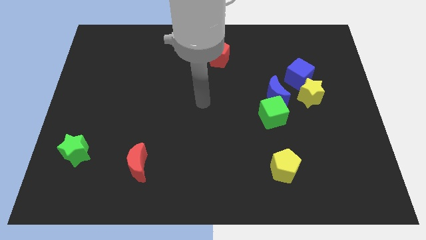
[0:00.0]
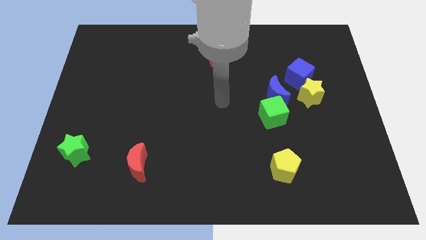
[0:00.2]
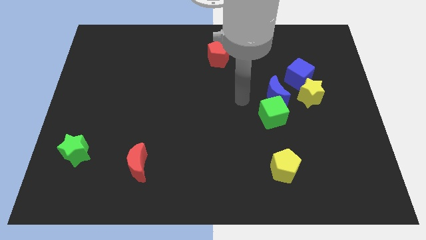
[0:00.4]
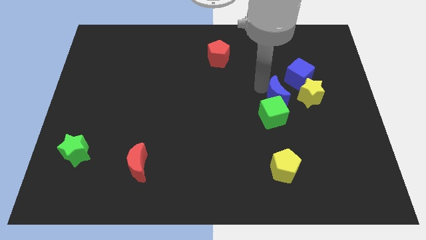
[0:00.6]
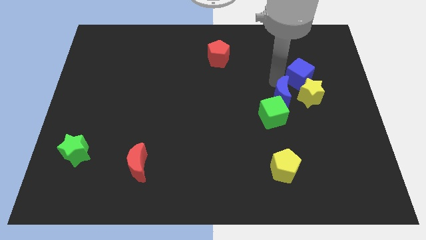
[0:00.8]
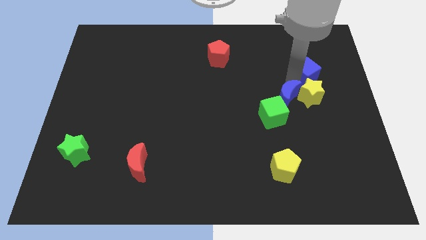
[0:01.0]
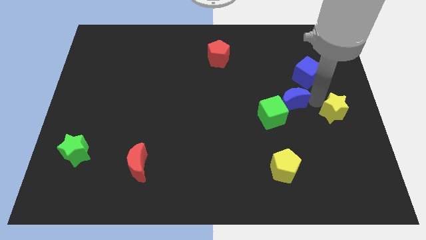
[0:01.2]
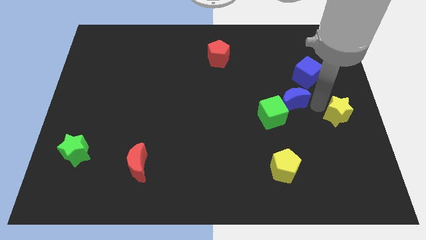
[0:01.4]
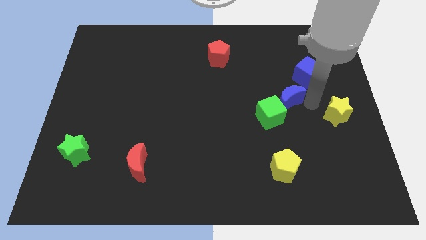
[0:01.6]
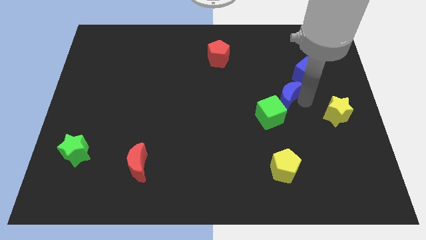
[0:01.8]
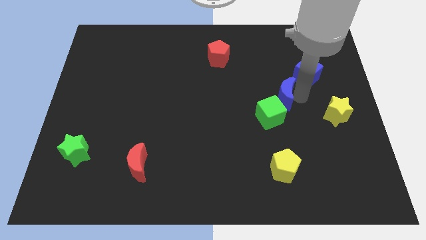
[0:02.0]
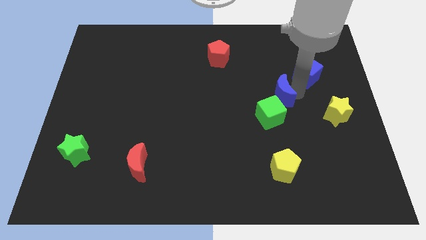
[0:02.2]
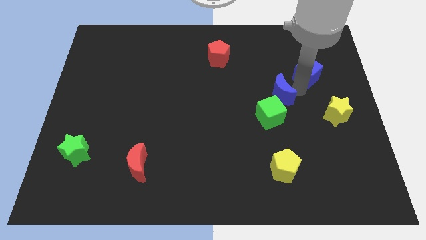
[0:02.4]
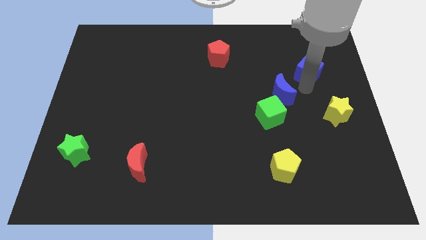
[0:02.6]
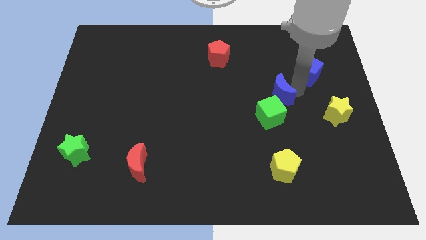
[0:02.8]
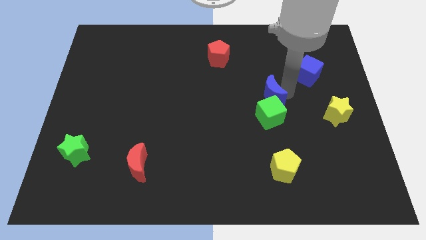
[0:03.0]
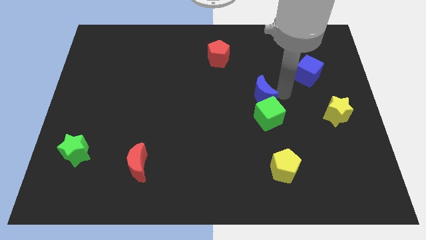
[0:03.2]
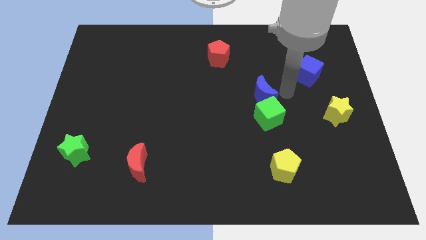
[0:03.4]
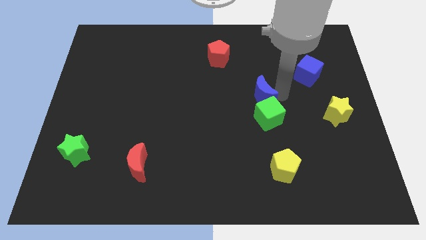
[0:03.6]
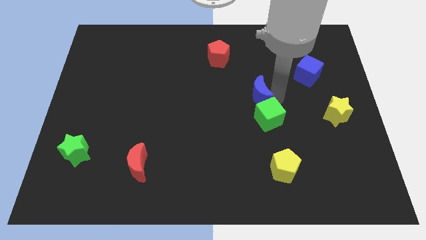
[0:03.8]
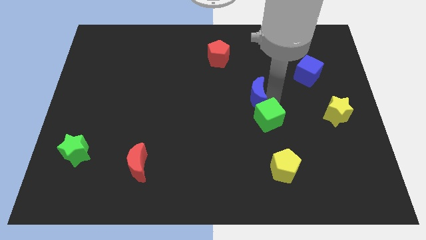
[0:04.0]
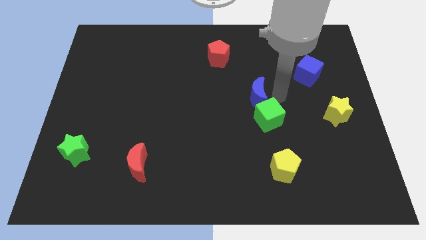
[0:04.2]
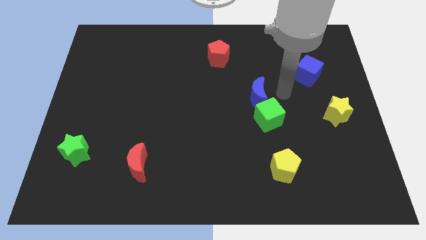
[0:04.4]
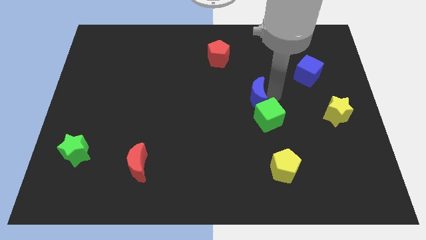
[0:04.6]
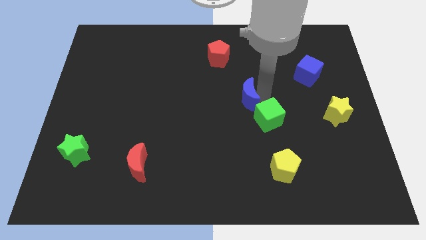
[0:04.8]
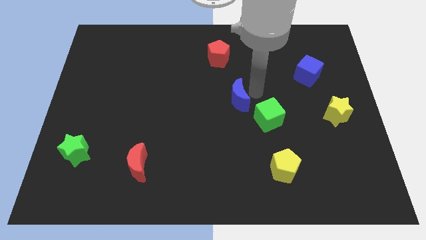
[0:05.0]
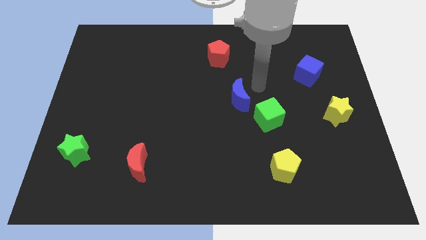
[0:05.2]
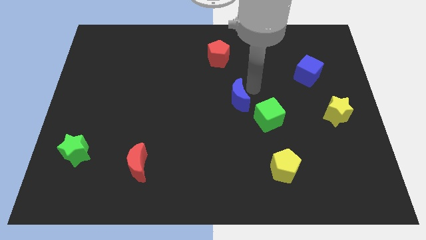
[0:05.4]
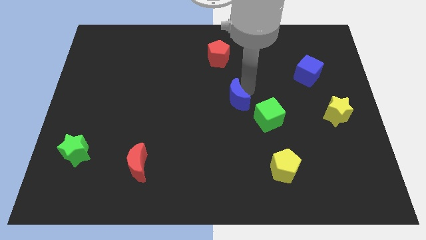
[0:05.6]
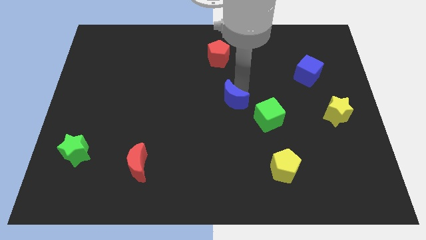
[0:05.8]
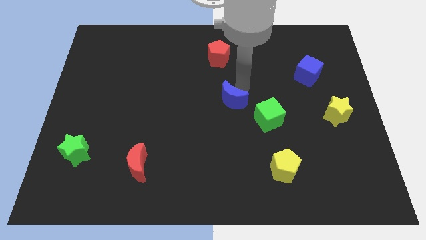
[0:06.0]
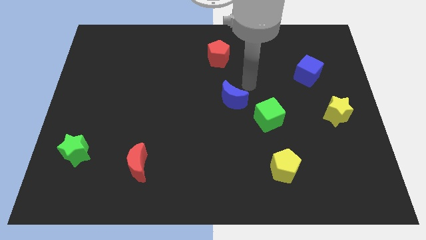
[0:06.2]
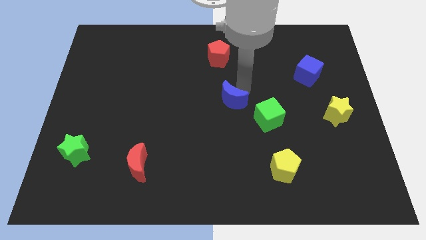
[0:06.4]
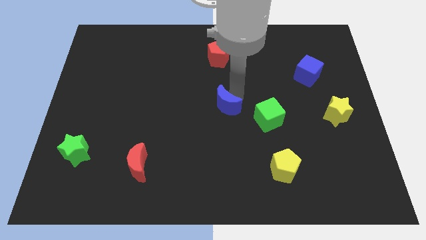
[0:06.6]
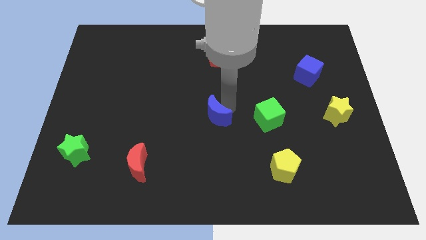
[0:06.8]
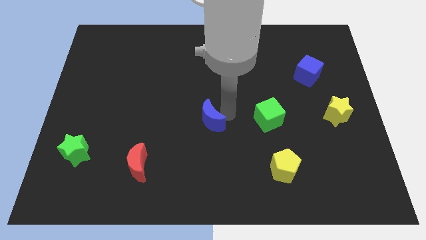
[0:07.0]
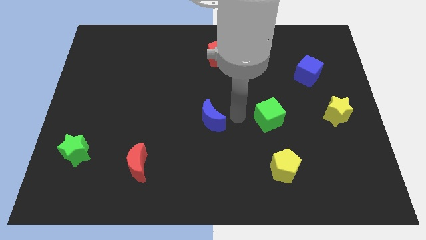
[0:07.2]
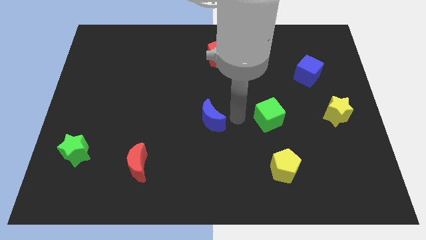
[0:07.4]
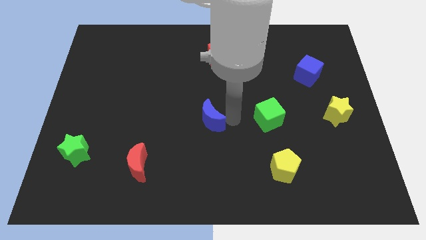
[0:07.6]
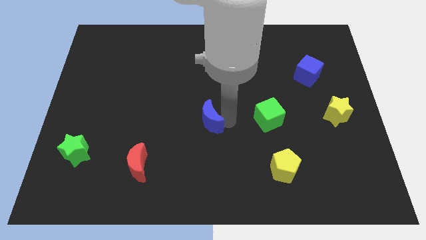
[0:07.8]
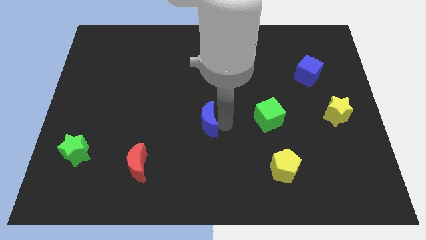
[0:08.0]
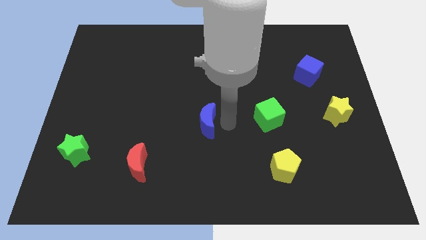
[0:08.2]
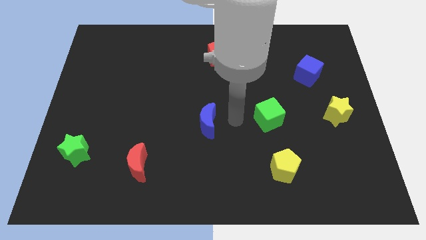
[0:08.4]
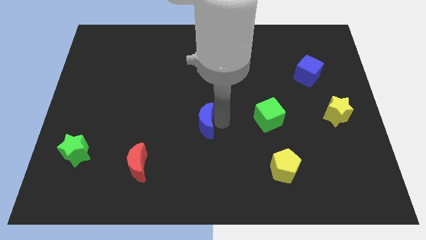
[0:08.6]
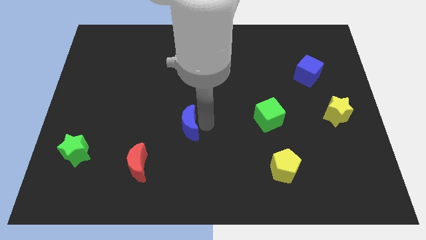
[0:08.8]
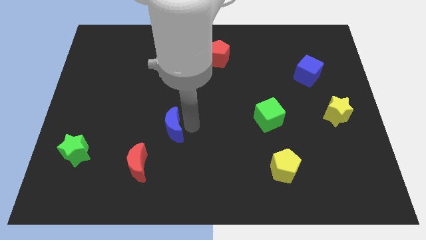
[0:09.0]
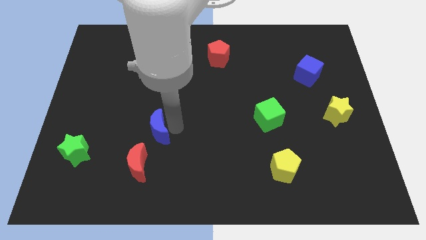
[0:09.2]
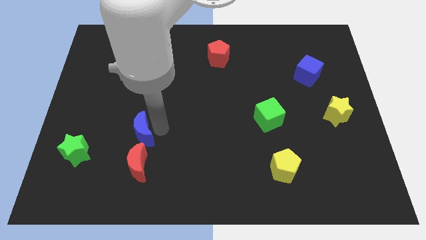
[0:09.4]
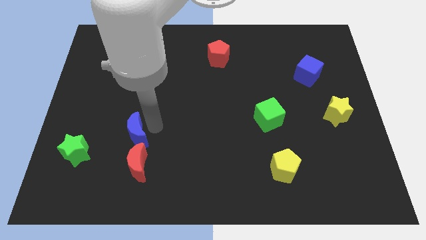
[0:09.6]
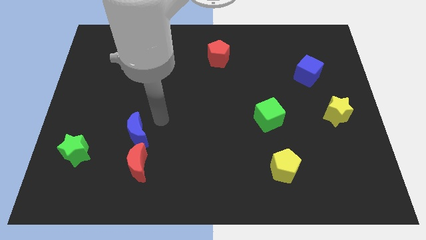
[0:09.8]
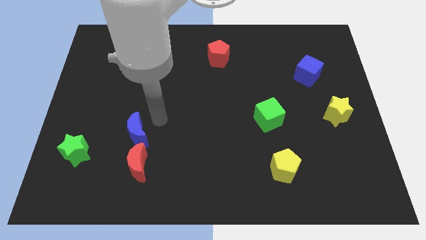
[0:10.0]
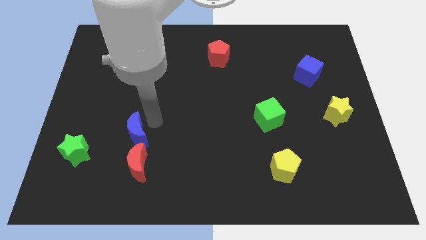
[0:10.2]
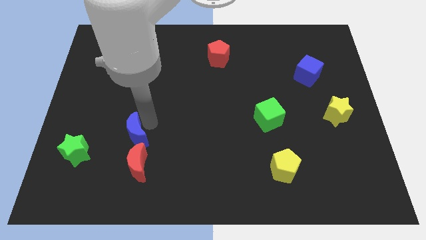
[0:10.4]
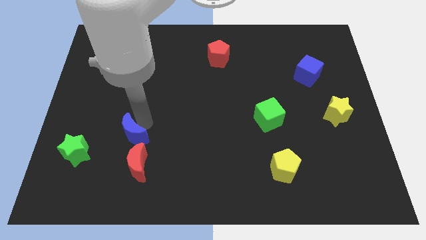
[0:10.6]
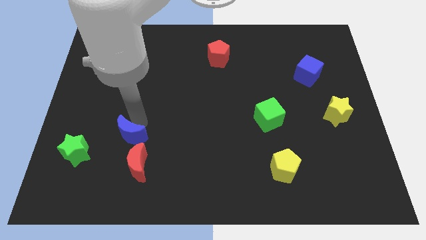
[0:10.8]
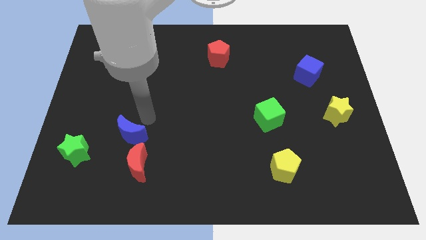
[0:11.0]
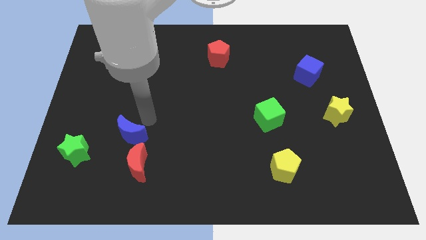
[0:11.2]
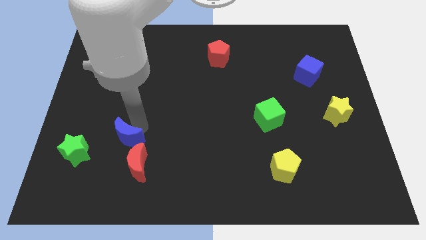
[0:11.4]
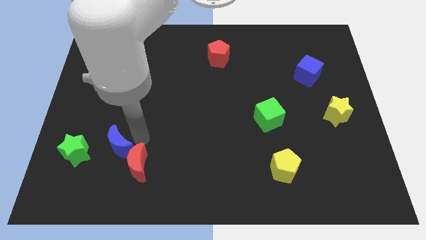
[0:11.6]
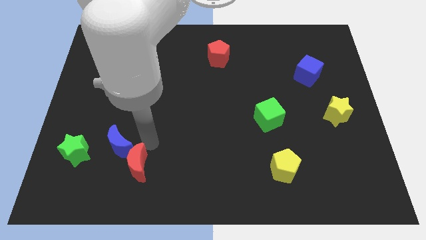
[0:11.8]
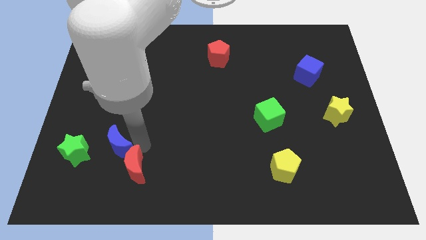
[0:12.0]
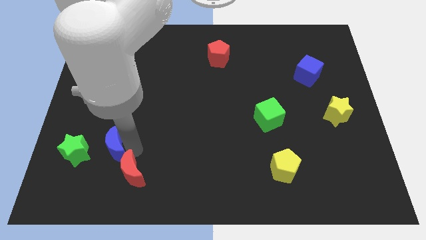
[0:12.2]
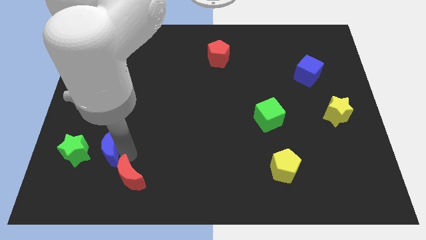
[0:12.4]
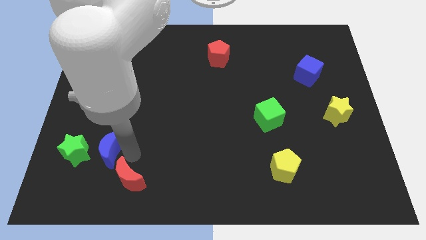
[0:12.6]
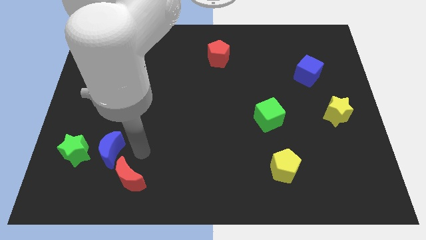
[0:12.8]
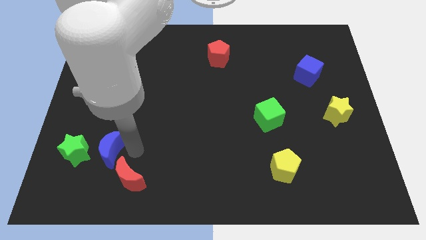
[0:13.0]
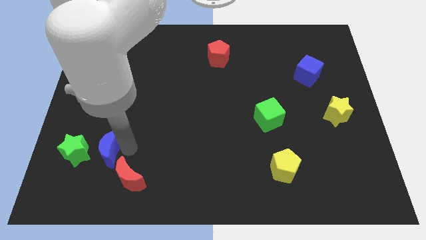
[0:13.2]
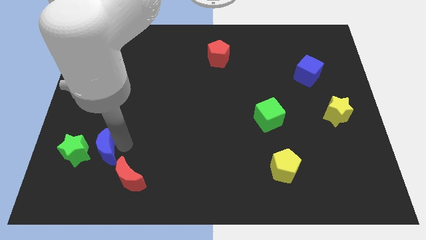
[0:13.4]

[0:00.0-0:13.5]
put the blue moon to the green star
